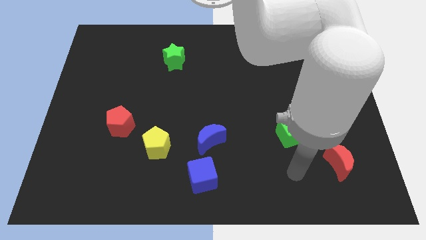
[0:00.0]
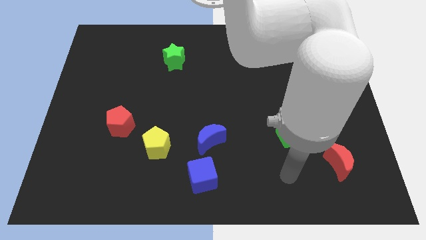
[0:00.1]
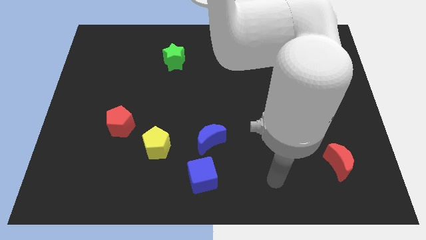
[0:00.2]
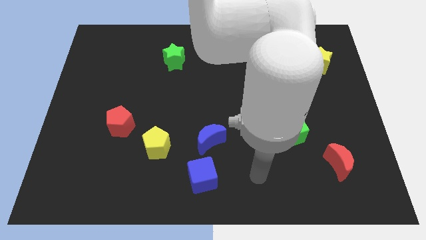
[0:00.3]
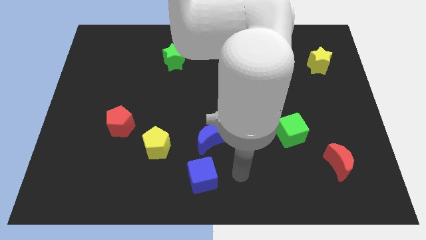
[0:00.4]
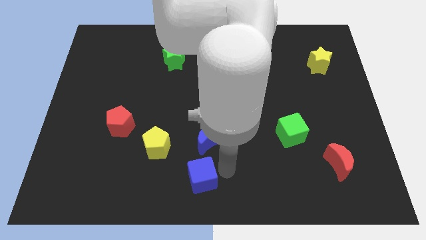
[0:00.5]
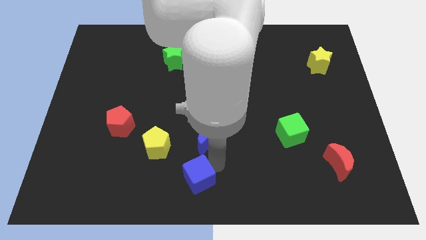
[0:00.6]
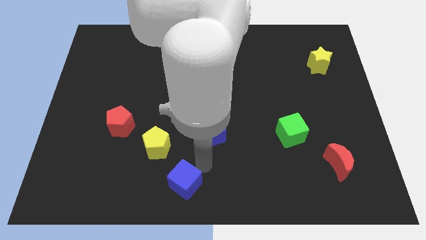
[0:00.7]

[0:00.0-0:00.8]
separate the blue moon from the blue cube

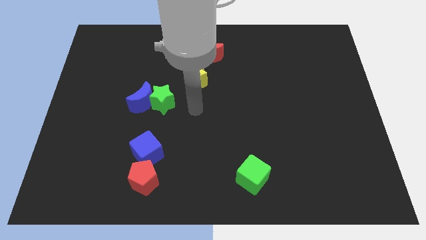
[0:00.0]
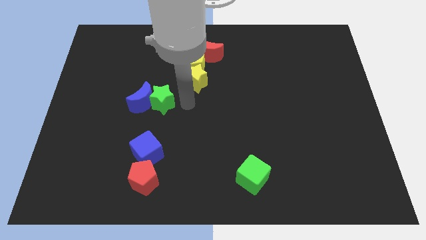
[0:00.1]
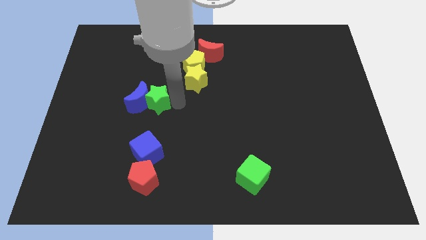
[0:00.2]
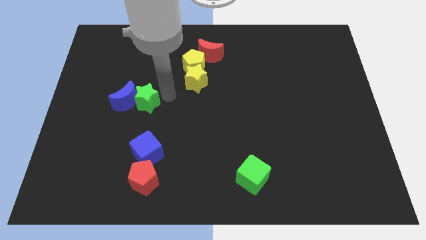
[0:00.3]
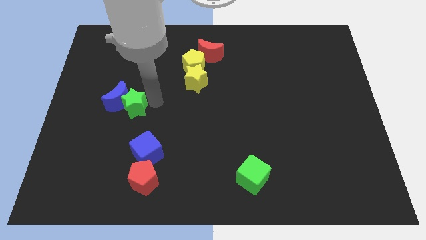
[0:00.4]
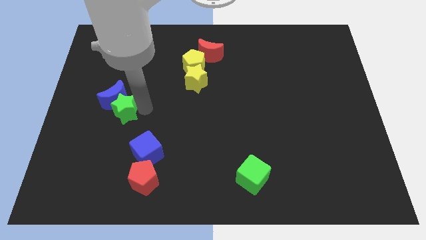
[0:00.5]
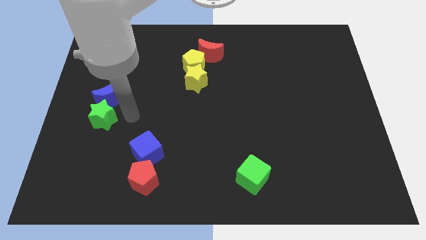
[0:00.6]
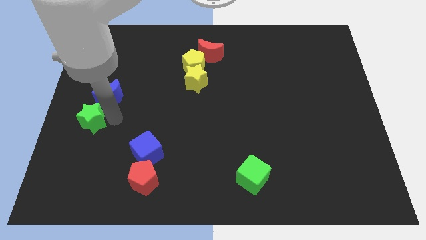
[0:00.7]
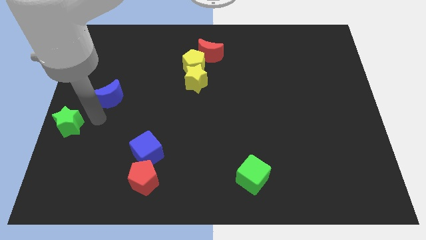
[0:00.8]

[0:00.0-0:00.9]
separate the blue moon from the green star

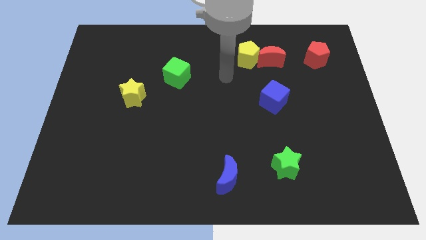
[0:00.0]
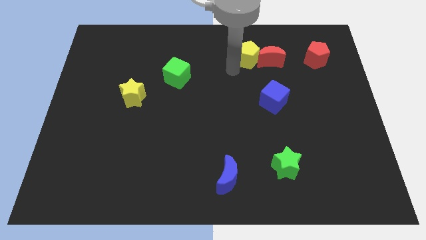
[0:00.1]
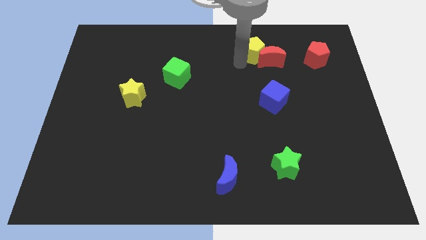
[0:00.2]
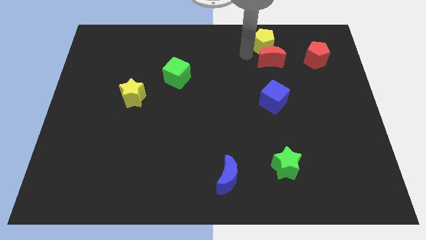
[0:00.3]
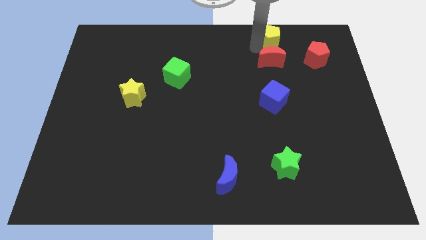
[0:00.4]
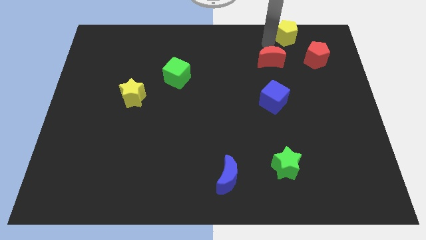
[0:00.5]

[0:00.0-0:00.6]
pull the red moon apart from the yellow pentagon

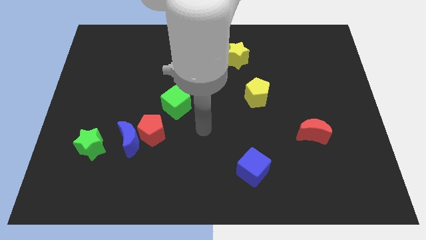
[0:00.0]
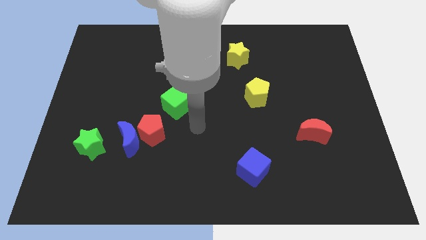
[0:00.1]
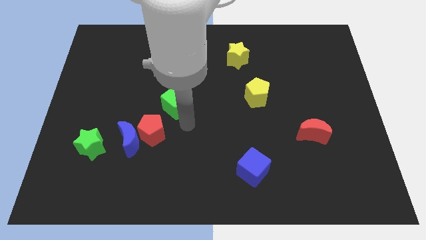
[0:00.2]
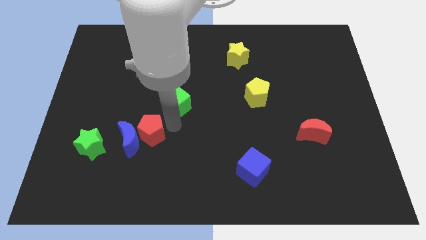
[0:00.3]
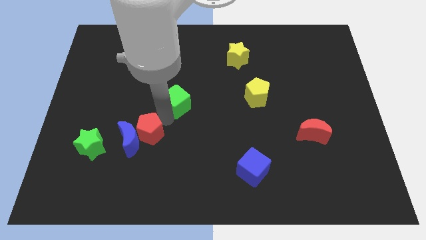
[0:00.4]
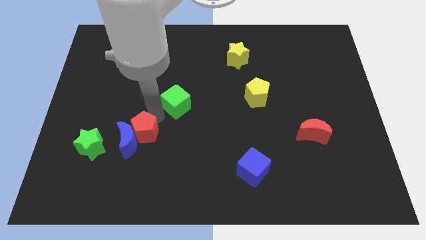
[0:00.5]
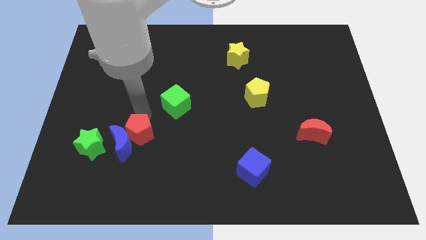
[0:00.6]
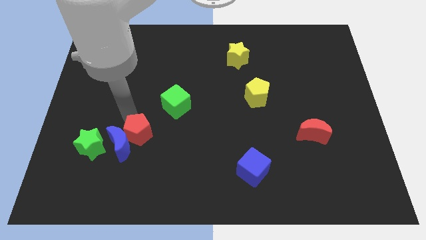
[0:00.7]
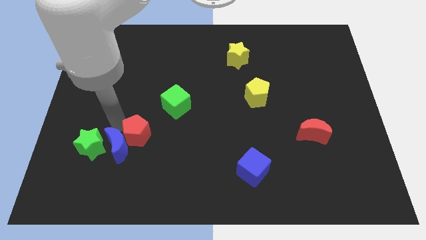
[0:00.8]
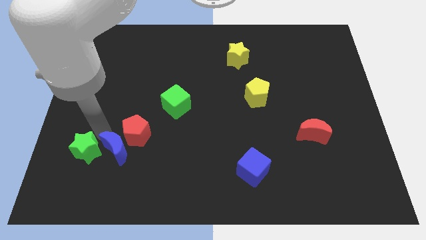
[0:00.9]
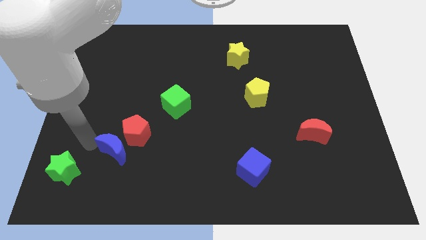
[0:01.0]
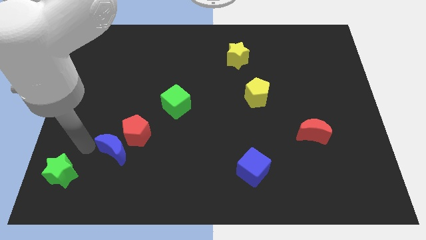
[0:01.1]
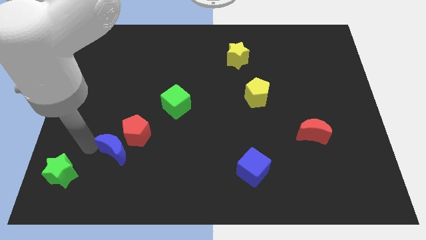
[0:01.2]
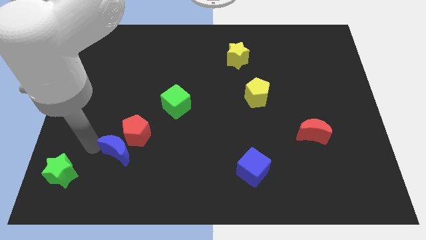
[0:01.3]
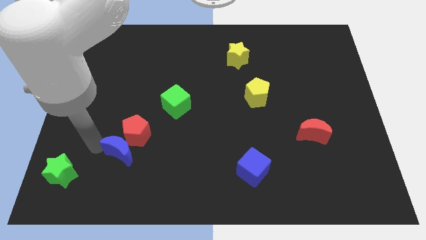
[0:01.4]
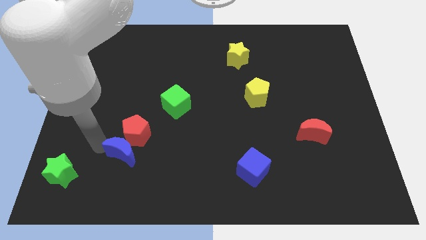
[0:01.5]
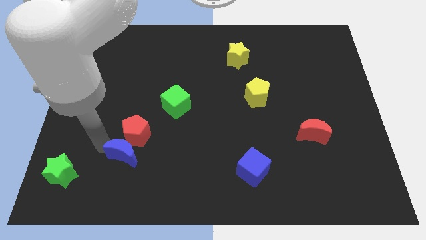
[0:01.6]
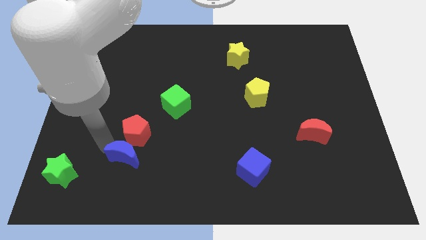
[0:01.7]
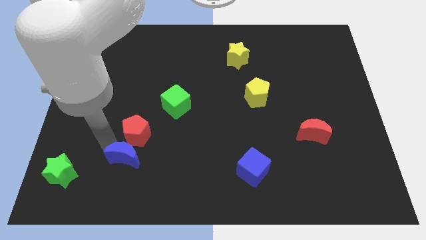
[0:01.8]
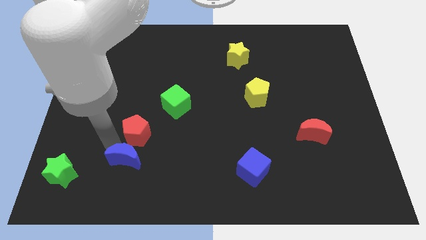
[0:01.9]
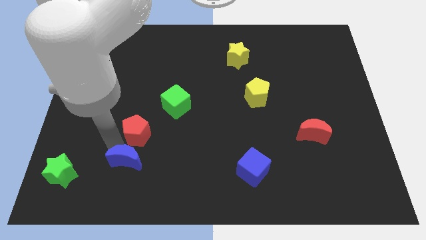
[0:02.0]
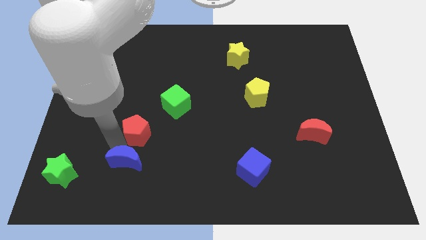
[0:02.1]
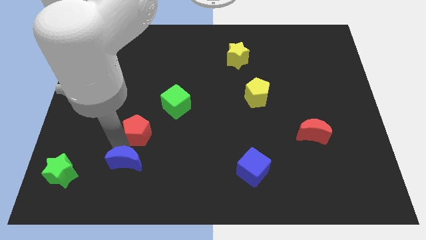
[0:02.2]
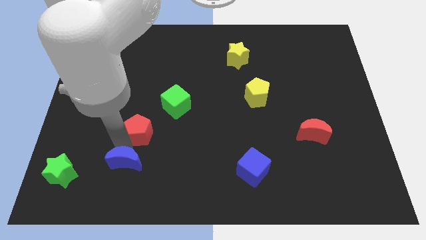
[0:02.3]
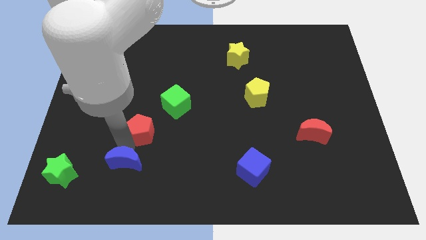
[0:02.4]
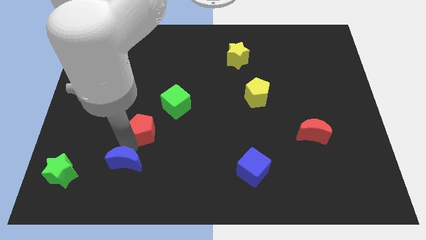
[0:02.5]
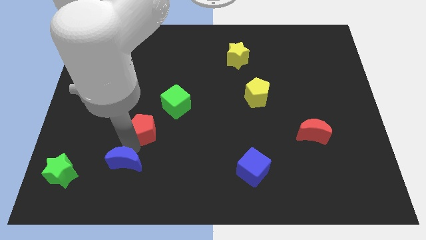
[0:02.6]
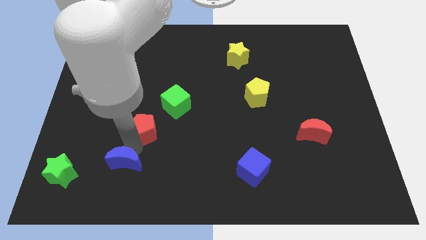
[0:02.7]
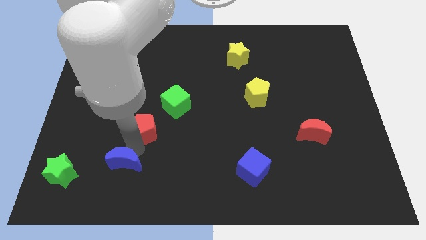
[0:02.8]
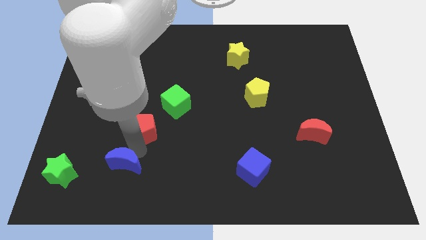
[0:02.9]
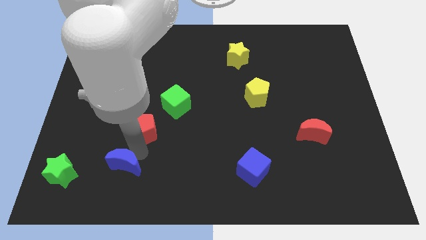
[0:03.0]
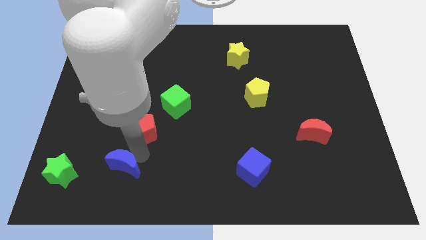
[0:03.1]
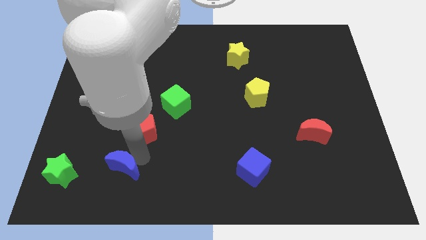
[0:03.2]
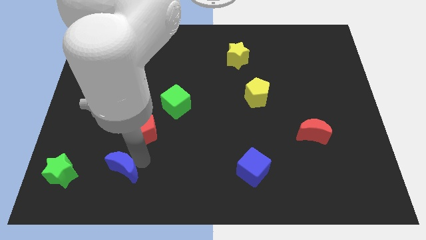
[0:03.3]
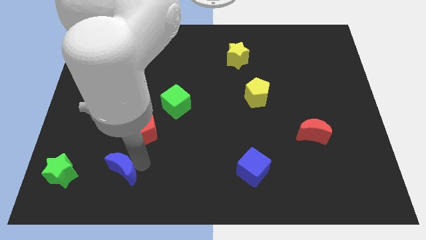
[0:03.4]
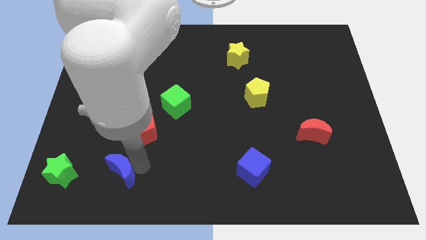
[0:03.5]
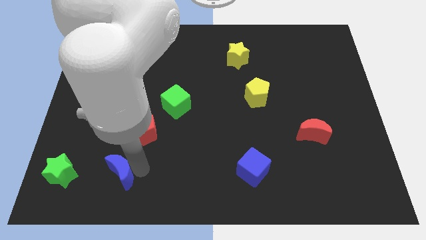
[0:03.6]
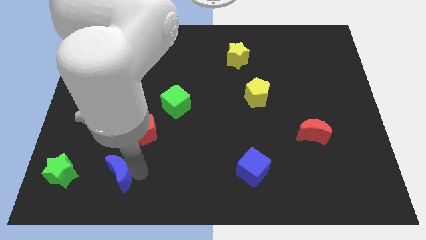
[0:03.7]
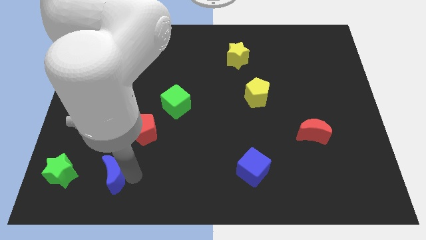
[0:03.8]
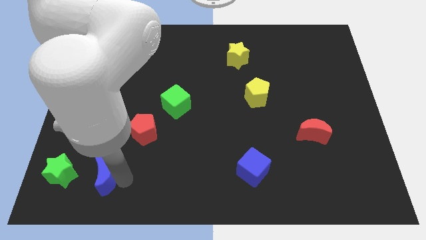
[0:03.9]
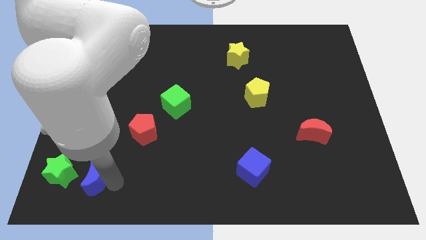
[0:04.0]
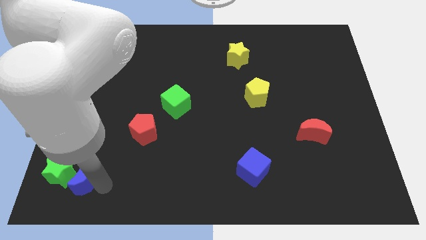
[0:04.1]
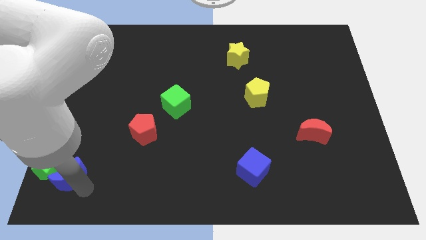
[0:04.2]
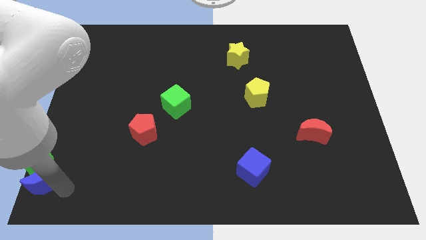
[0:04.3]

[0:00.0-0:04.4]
move the blue moon away from the red pentagon and green star

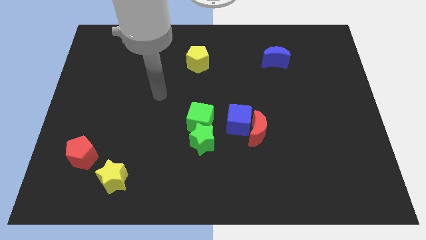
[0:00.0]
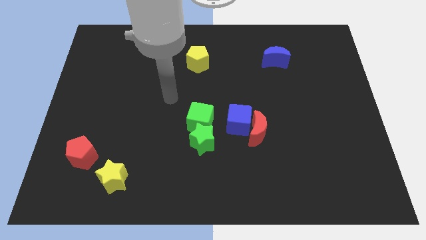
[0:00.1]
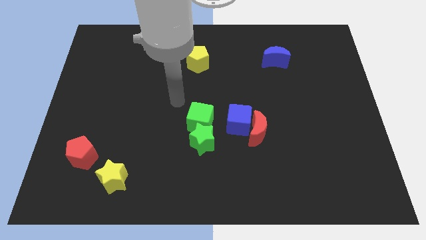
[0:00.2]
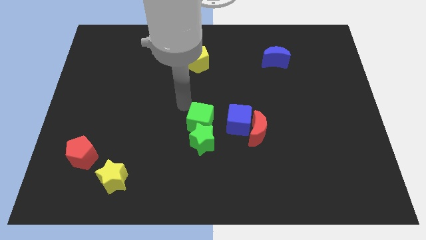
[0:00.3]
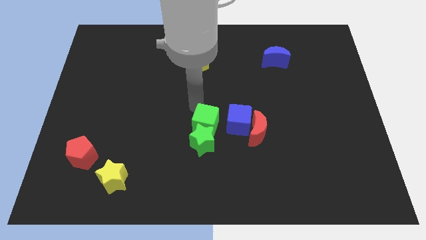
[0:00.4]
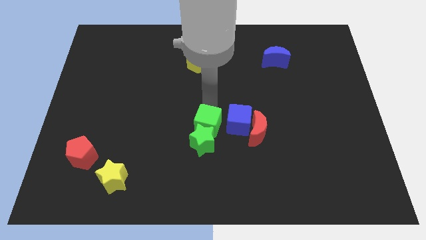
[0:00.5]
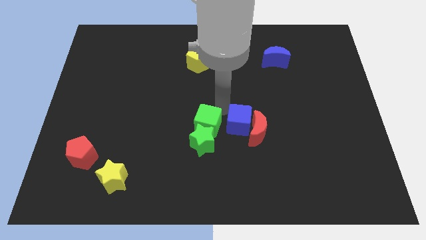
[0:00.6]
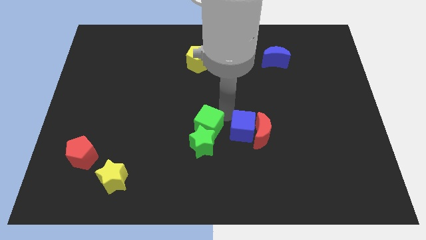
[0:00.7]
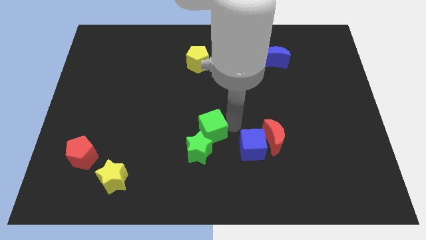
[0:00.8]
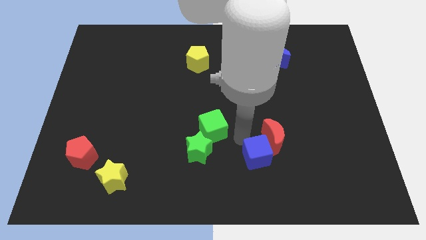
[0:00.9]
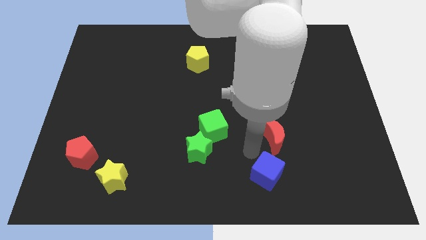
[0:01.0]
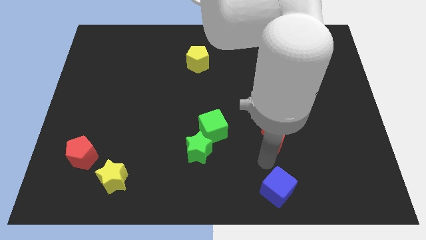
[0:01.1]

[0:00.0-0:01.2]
pull the red moon apart from the blue cube

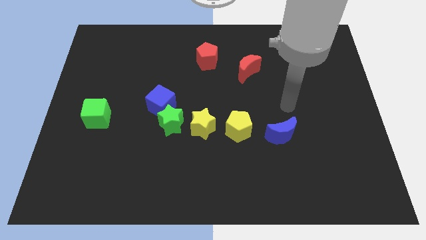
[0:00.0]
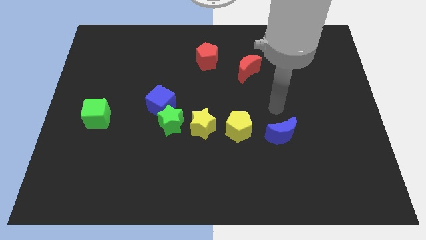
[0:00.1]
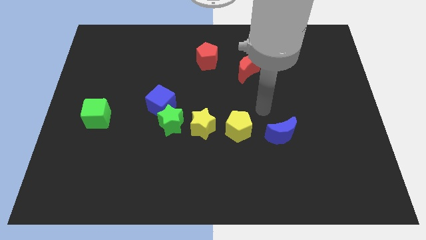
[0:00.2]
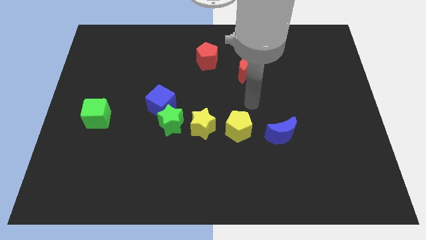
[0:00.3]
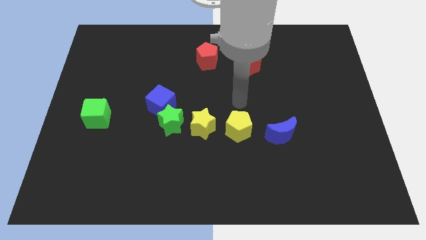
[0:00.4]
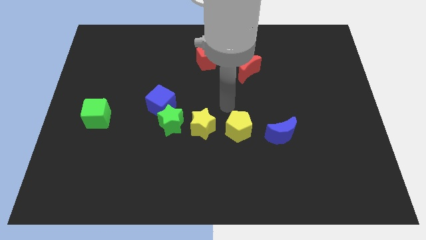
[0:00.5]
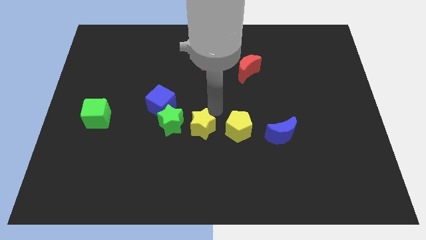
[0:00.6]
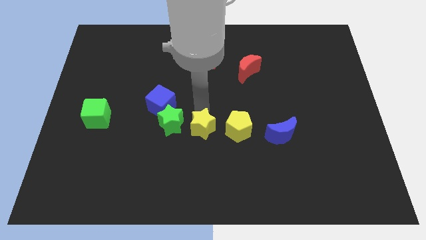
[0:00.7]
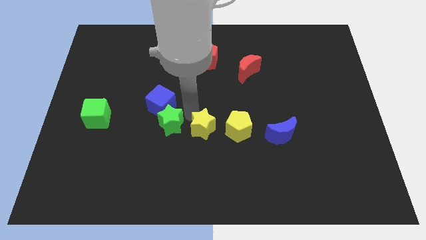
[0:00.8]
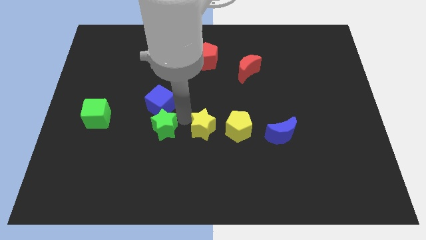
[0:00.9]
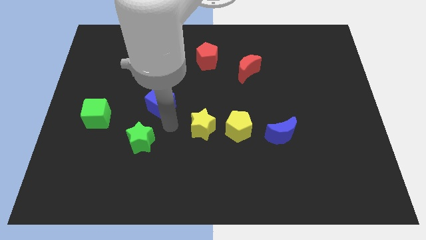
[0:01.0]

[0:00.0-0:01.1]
move the blue cube away from the green star

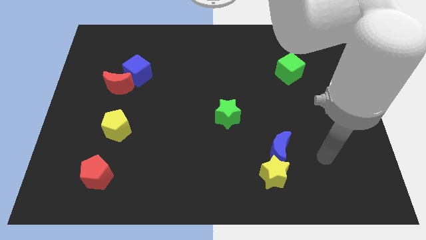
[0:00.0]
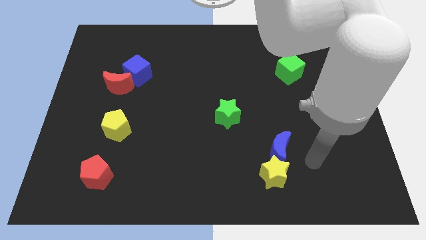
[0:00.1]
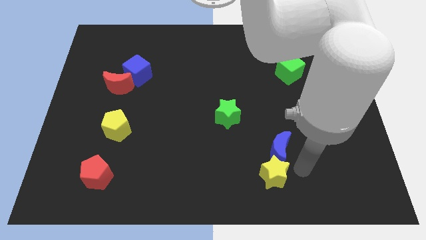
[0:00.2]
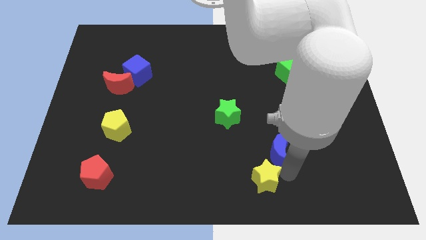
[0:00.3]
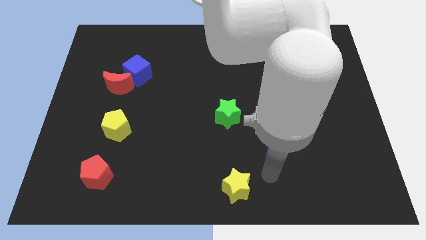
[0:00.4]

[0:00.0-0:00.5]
separate the blue moon from the yellow star
